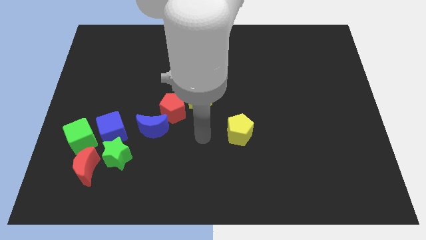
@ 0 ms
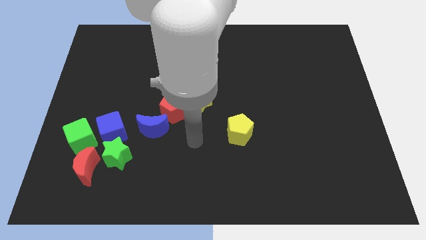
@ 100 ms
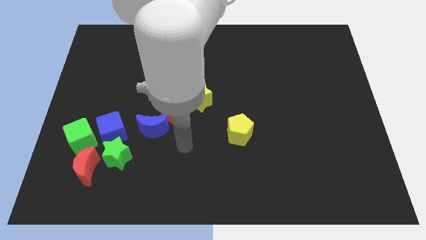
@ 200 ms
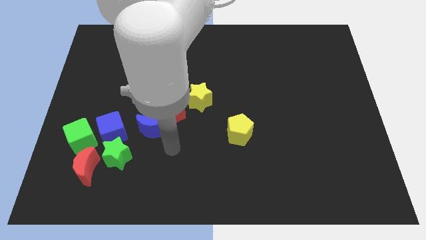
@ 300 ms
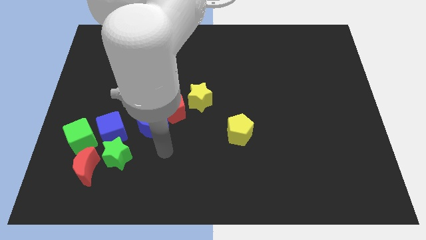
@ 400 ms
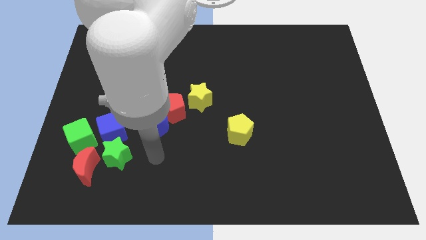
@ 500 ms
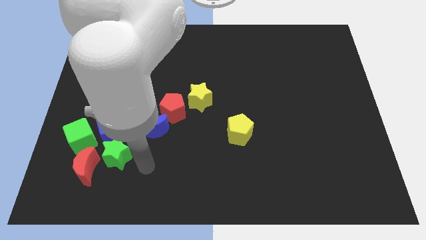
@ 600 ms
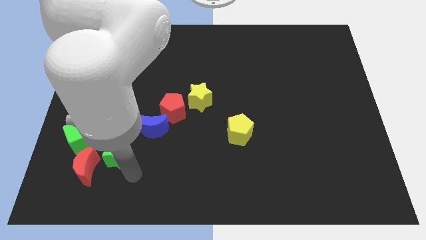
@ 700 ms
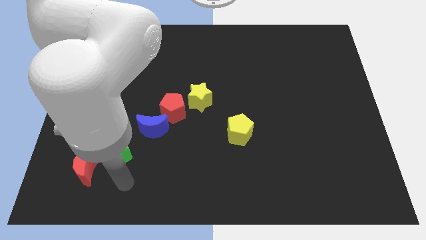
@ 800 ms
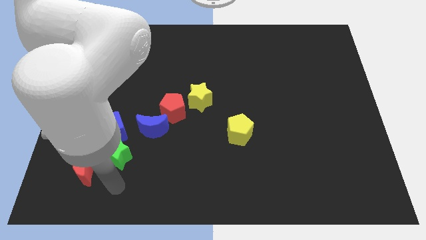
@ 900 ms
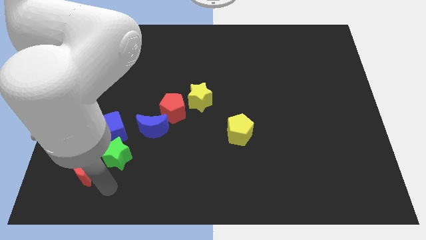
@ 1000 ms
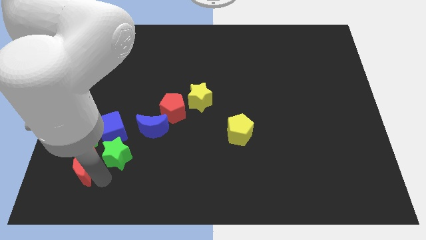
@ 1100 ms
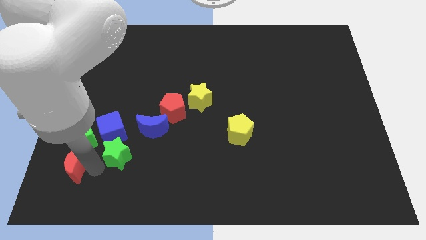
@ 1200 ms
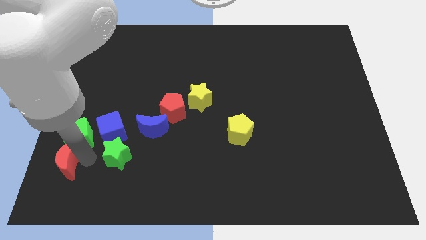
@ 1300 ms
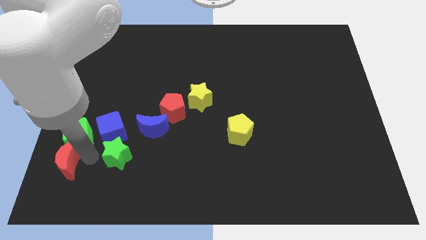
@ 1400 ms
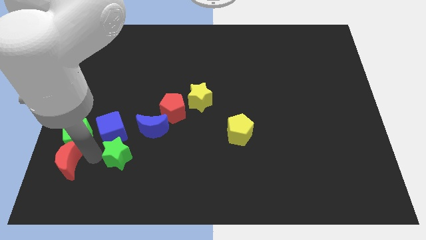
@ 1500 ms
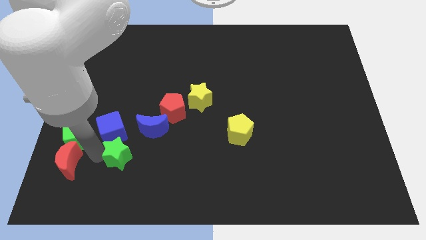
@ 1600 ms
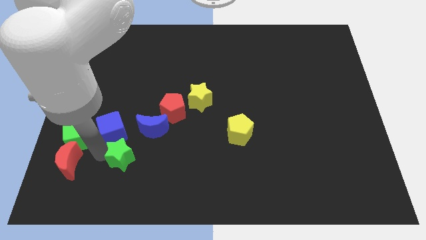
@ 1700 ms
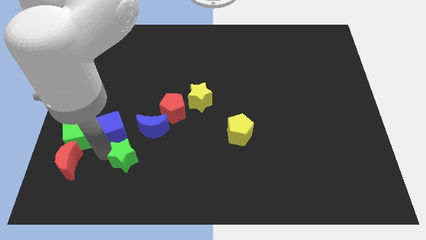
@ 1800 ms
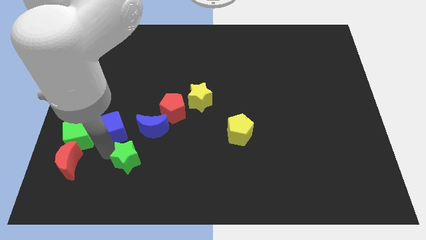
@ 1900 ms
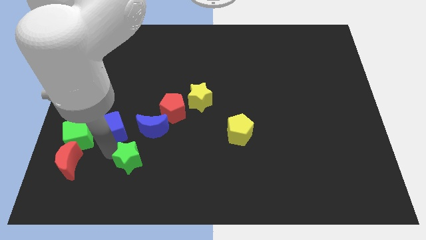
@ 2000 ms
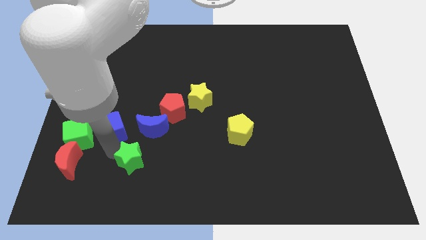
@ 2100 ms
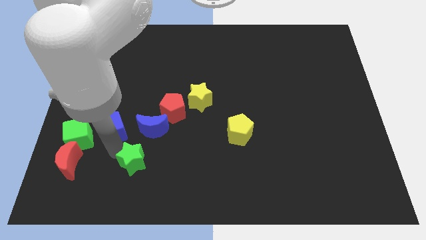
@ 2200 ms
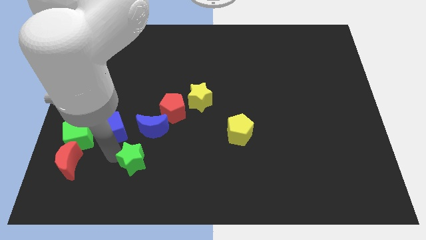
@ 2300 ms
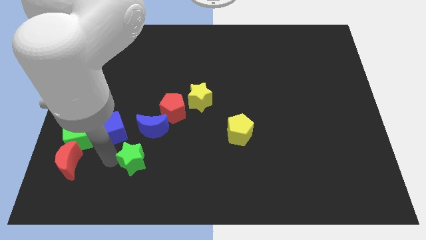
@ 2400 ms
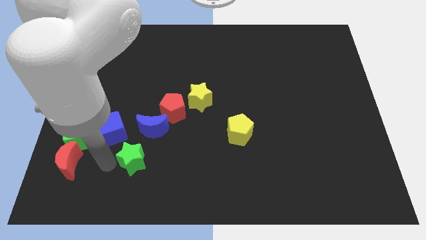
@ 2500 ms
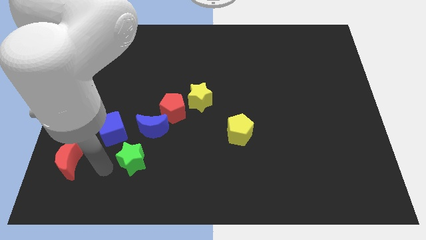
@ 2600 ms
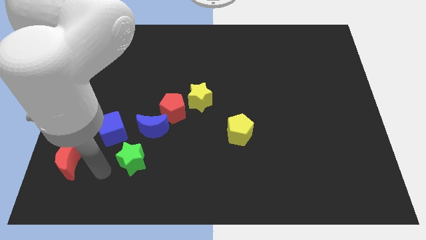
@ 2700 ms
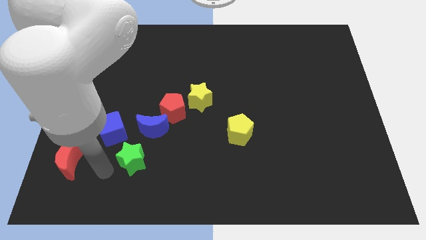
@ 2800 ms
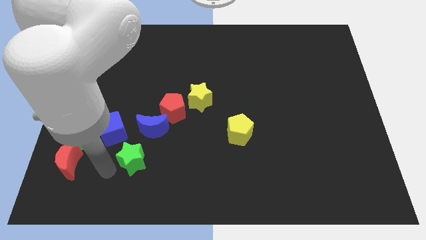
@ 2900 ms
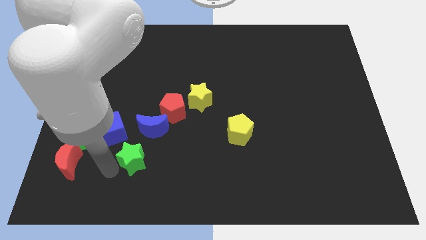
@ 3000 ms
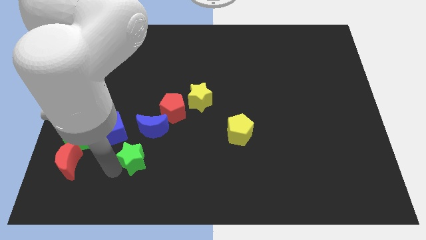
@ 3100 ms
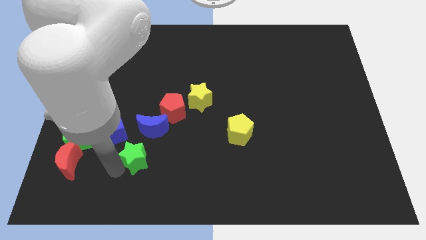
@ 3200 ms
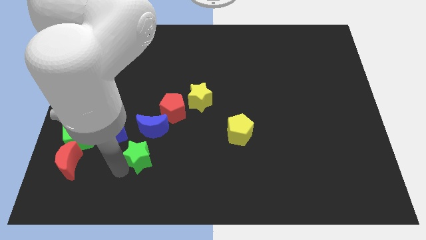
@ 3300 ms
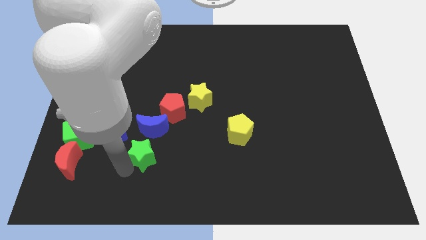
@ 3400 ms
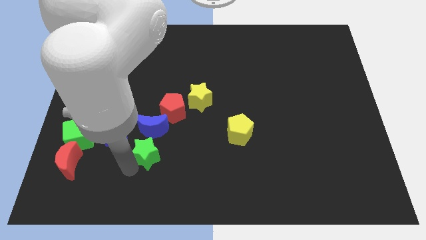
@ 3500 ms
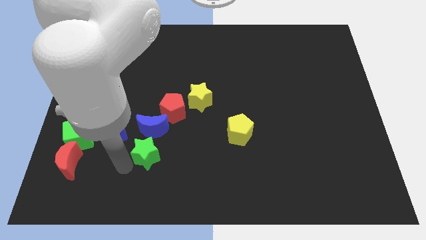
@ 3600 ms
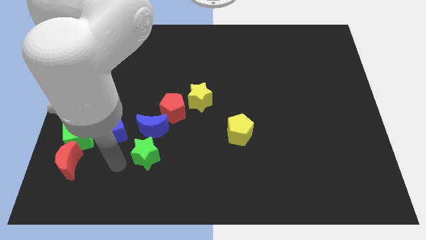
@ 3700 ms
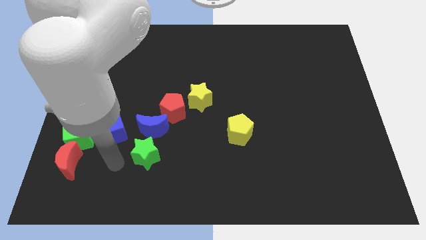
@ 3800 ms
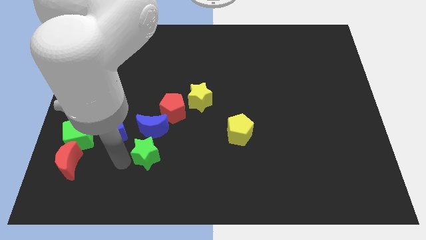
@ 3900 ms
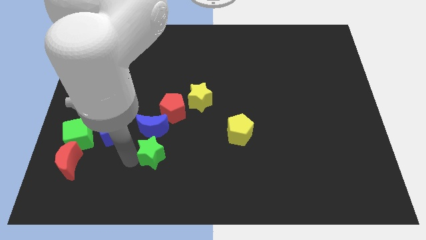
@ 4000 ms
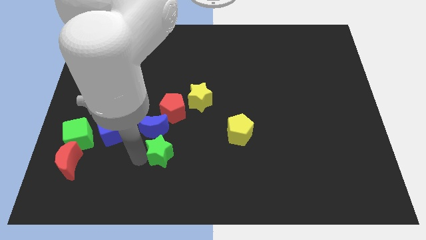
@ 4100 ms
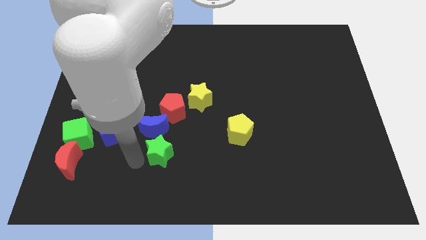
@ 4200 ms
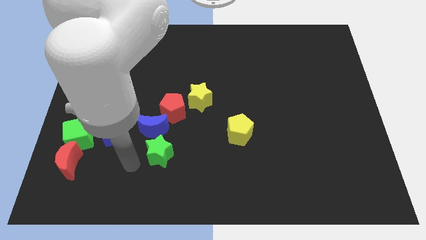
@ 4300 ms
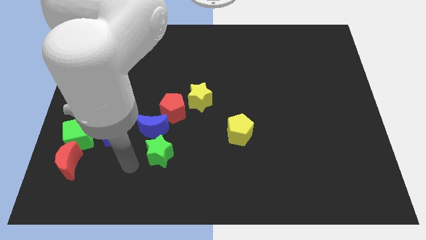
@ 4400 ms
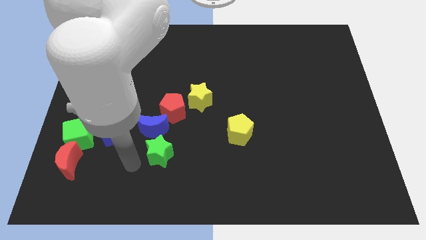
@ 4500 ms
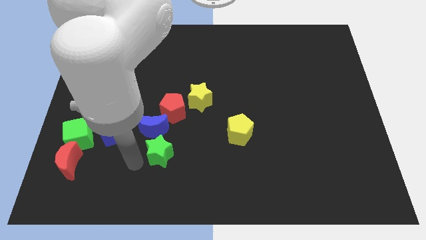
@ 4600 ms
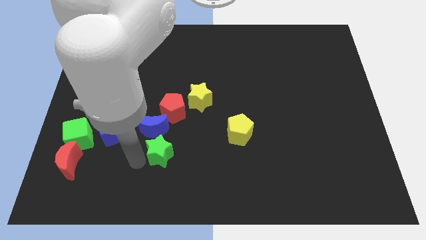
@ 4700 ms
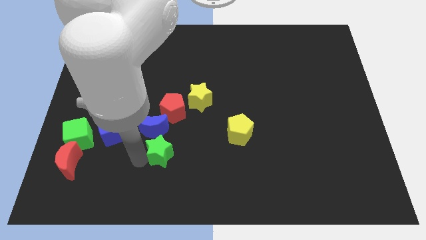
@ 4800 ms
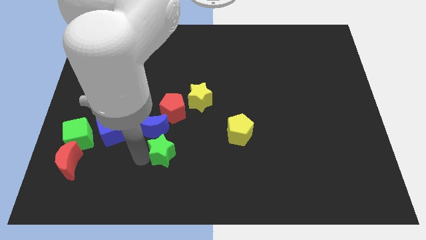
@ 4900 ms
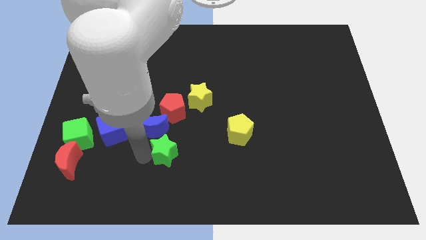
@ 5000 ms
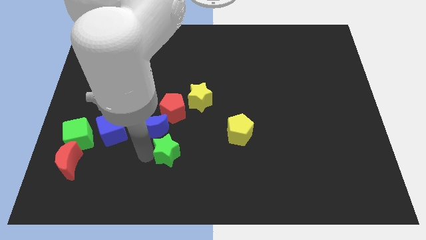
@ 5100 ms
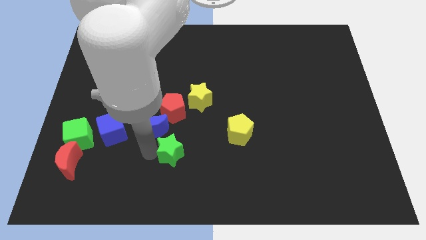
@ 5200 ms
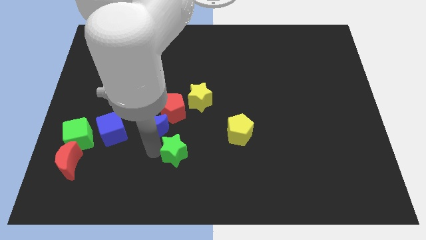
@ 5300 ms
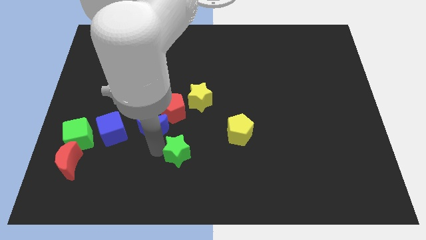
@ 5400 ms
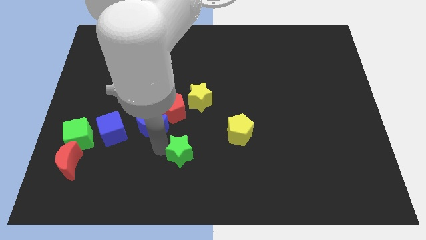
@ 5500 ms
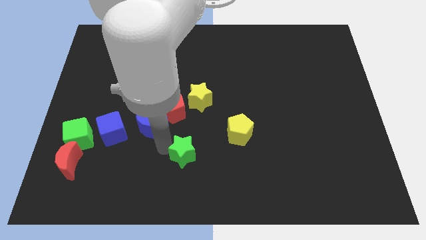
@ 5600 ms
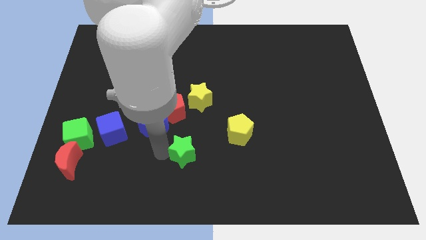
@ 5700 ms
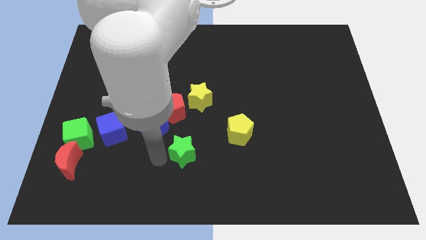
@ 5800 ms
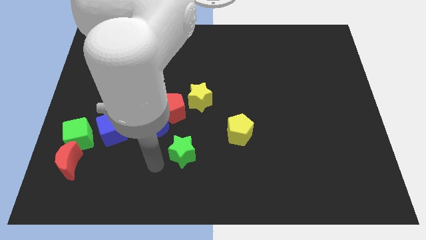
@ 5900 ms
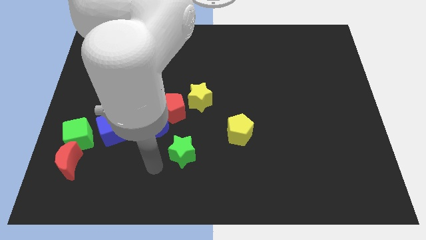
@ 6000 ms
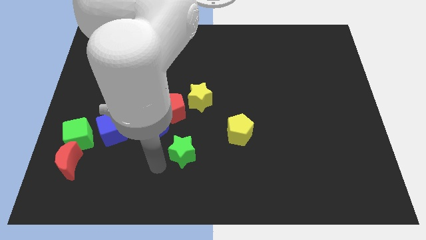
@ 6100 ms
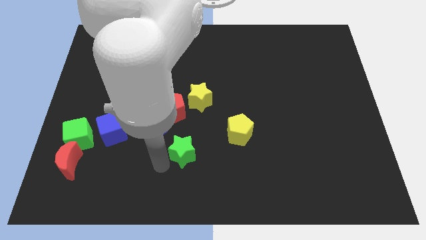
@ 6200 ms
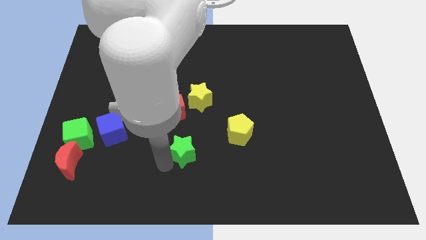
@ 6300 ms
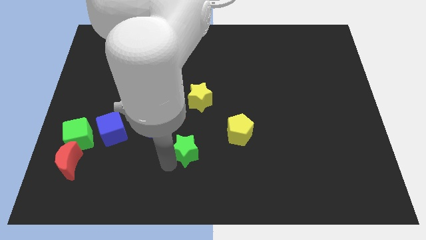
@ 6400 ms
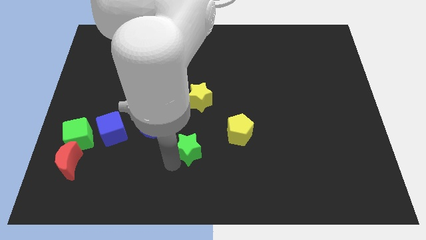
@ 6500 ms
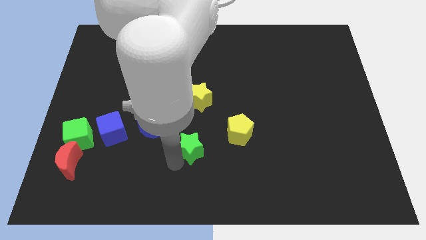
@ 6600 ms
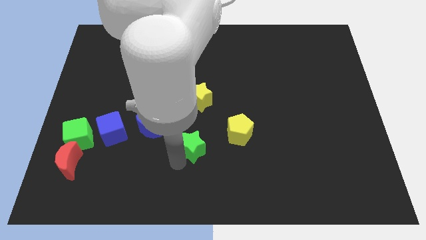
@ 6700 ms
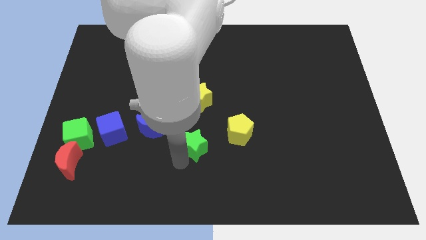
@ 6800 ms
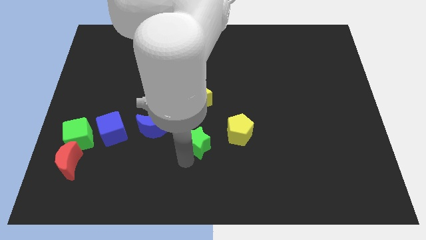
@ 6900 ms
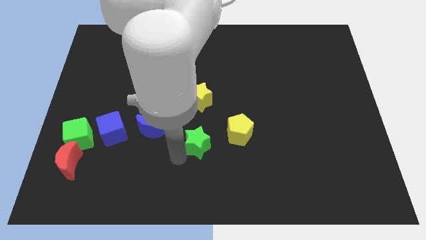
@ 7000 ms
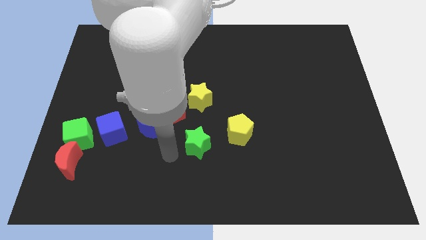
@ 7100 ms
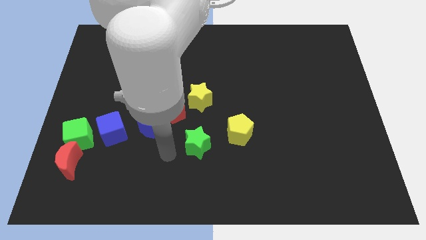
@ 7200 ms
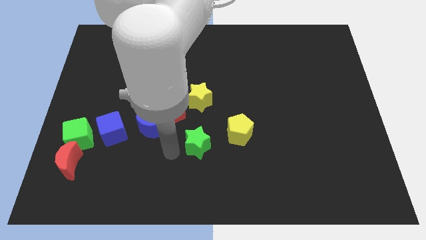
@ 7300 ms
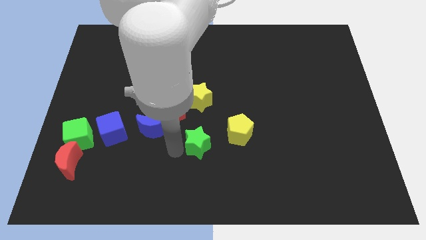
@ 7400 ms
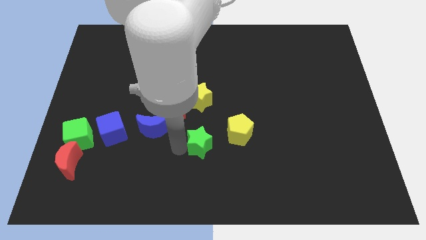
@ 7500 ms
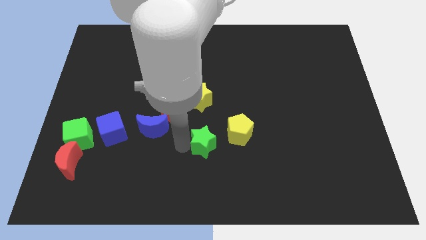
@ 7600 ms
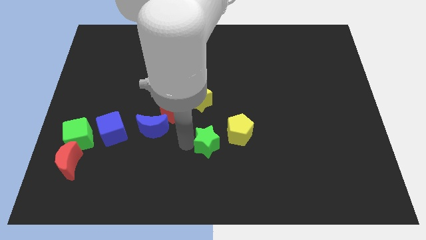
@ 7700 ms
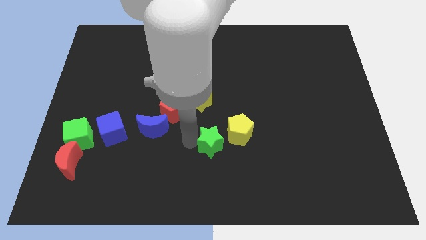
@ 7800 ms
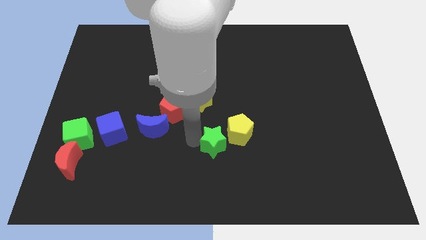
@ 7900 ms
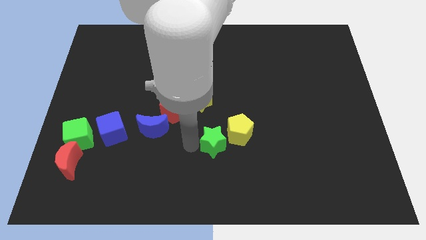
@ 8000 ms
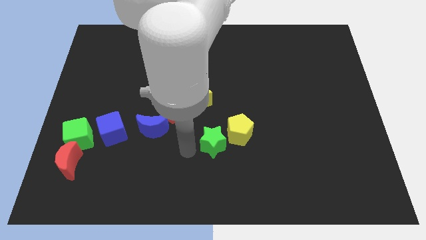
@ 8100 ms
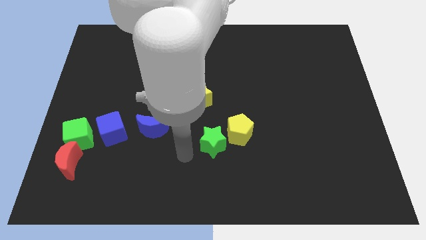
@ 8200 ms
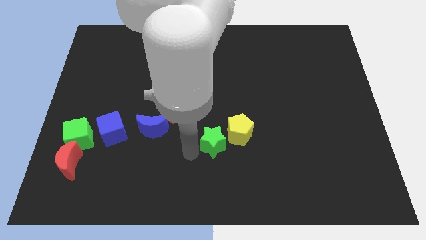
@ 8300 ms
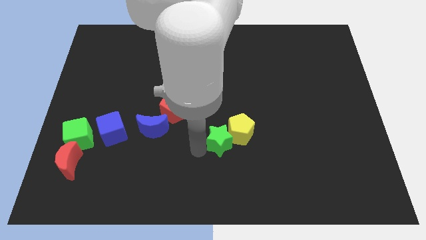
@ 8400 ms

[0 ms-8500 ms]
move the green star close to the yellow pentagon
